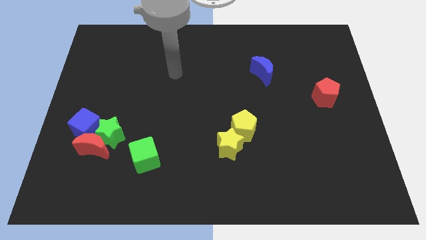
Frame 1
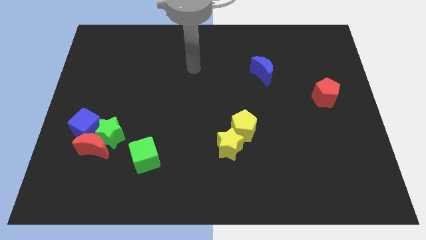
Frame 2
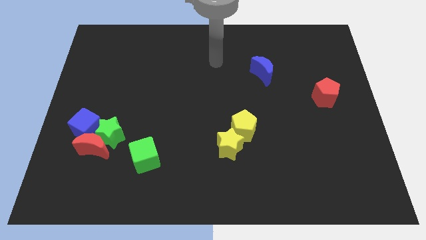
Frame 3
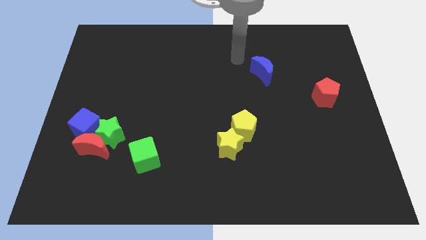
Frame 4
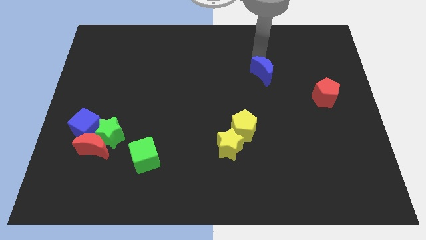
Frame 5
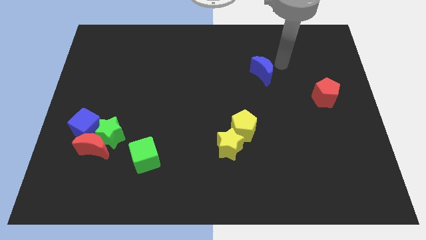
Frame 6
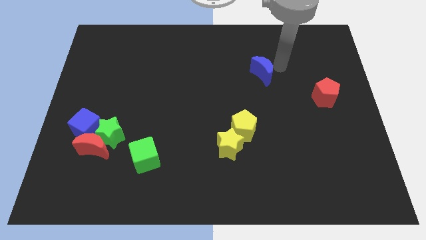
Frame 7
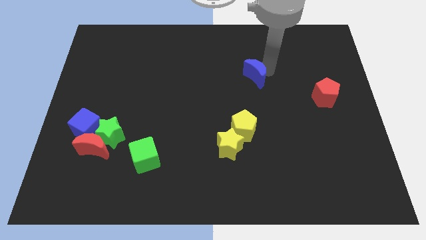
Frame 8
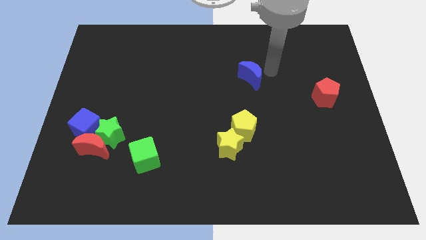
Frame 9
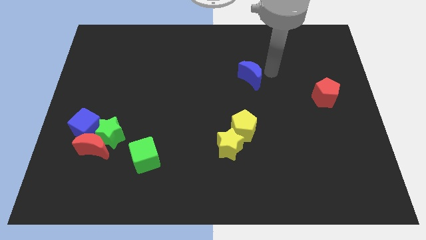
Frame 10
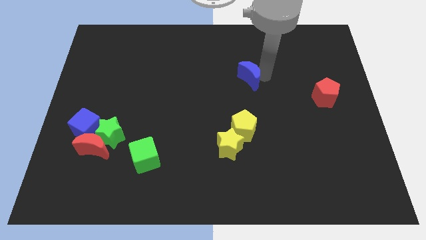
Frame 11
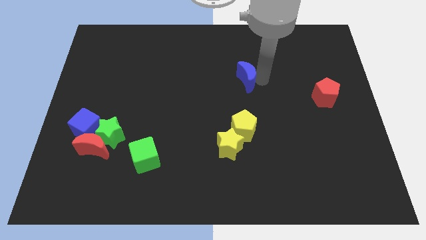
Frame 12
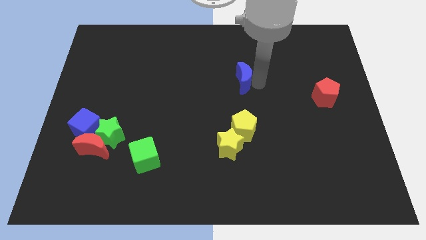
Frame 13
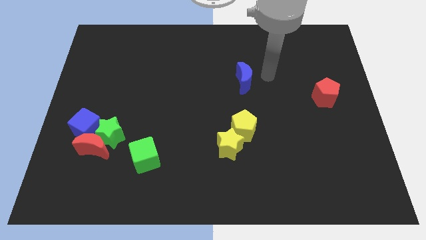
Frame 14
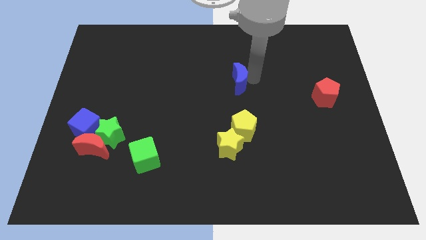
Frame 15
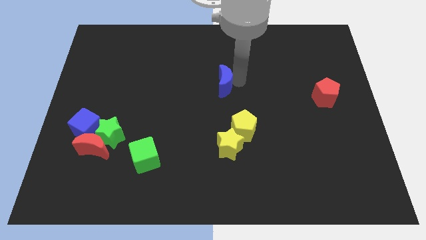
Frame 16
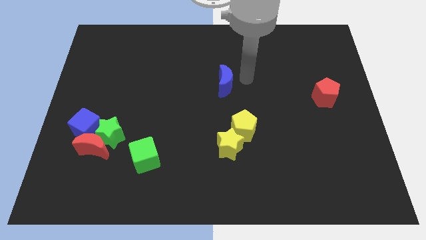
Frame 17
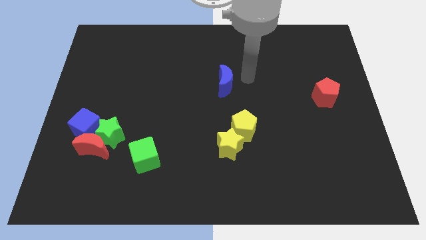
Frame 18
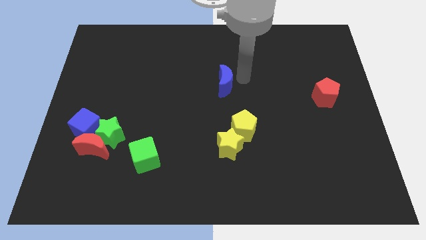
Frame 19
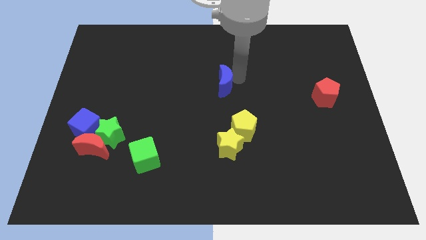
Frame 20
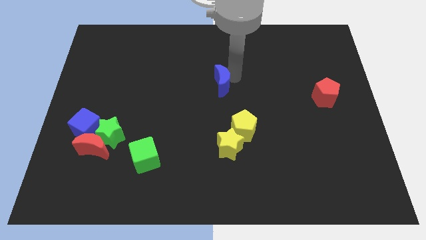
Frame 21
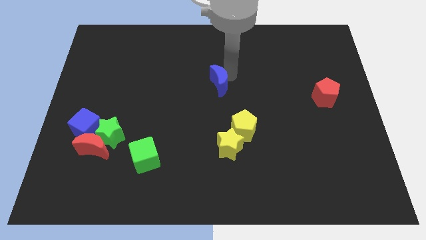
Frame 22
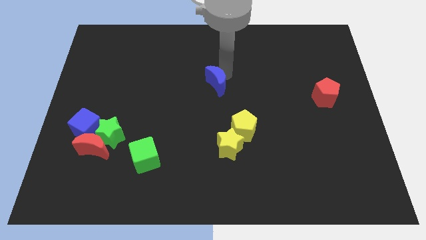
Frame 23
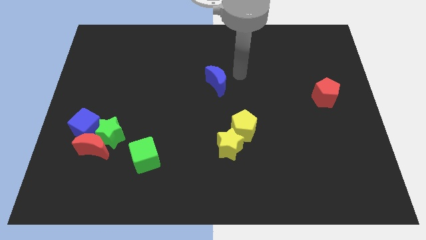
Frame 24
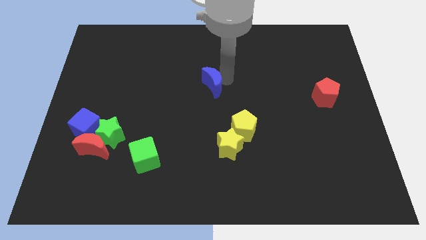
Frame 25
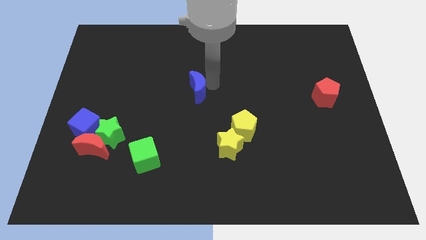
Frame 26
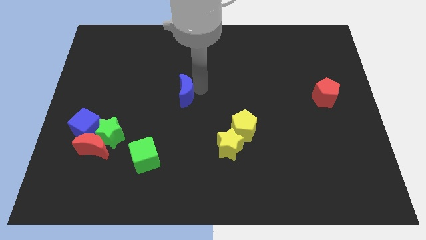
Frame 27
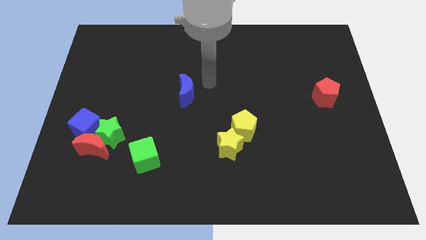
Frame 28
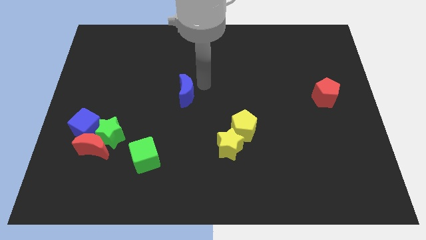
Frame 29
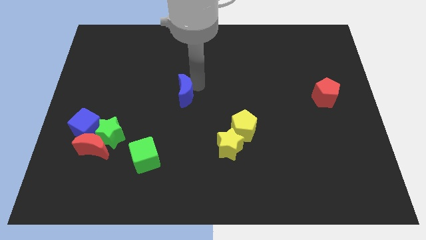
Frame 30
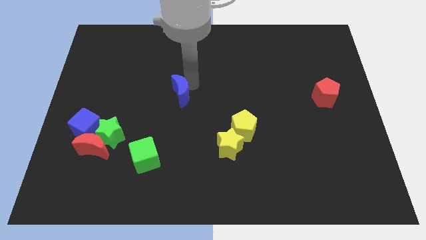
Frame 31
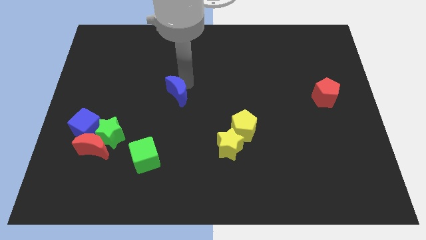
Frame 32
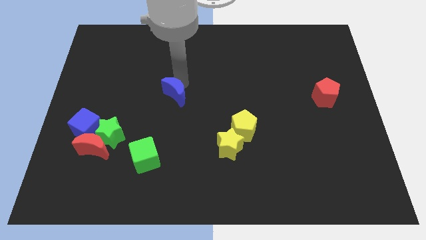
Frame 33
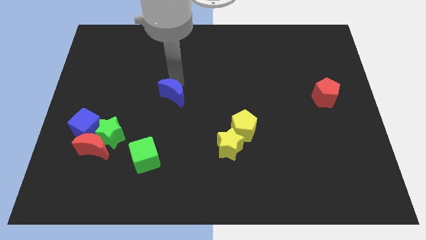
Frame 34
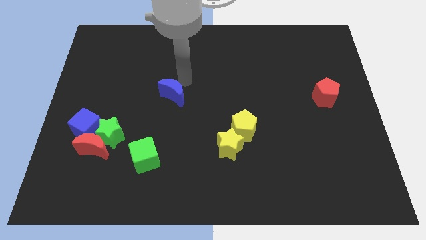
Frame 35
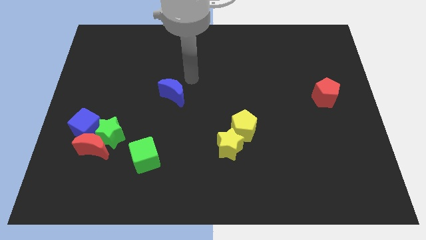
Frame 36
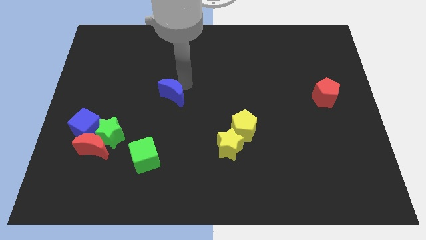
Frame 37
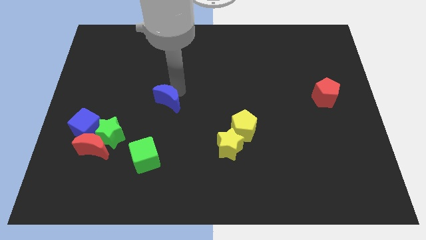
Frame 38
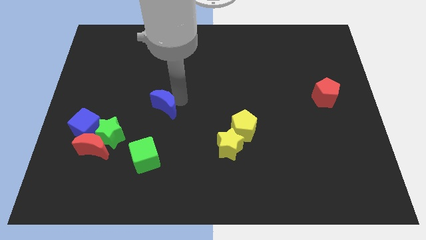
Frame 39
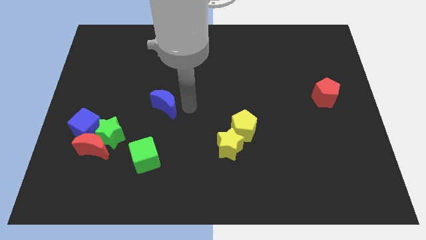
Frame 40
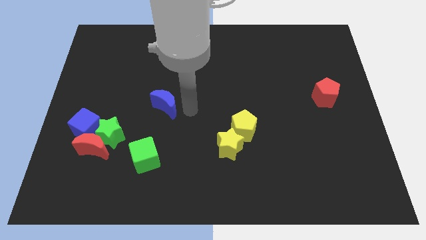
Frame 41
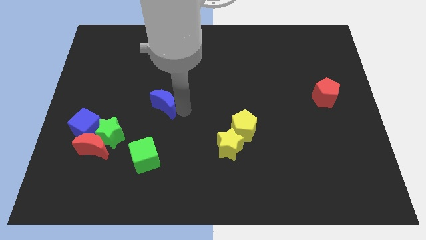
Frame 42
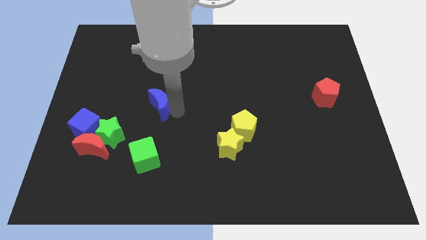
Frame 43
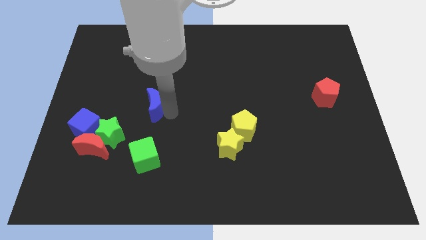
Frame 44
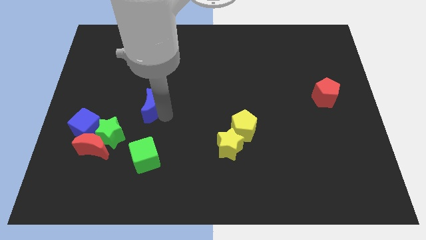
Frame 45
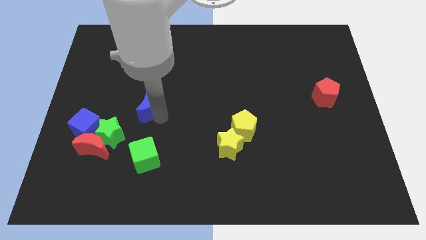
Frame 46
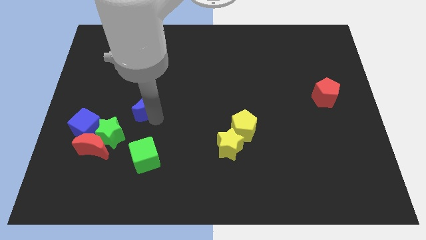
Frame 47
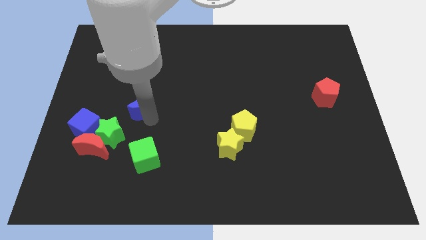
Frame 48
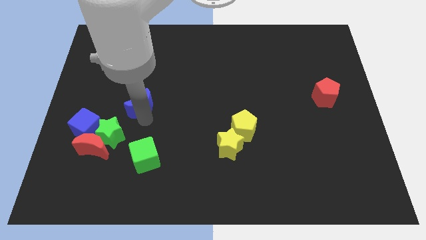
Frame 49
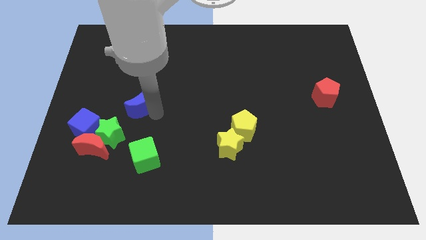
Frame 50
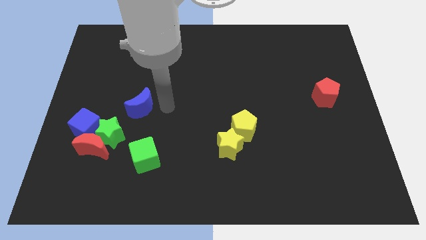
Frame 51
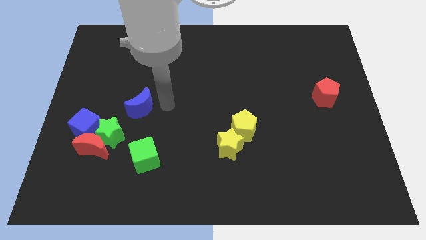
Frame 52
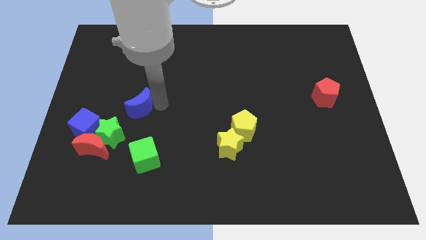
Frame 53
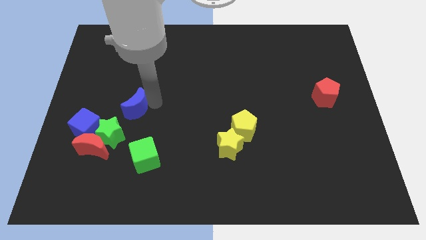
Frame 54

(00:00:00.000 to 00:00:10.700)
slide the blue moon to the top right side of the blue cube
